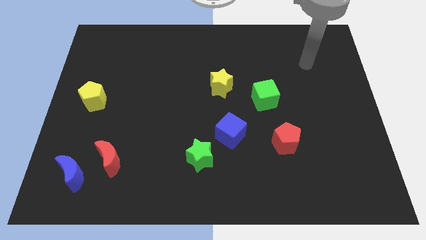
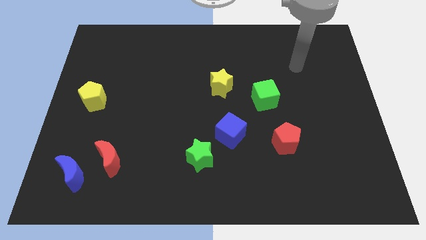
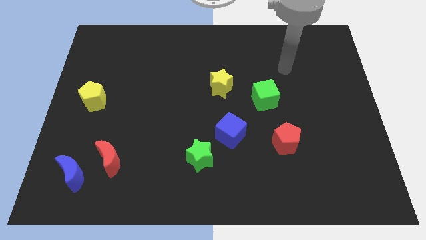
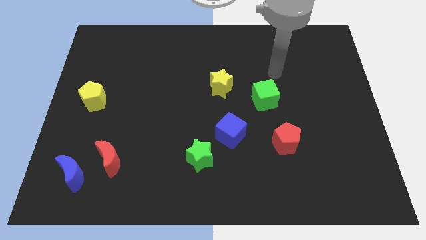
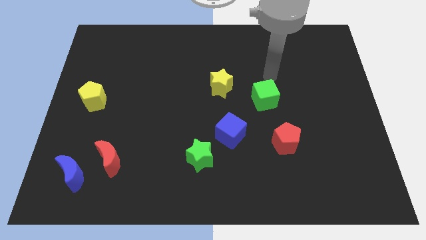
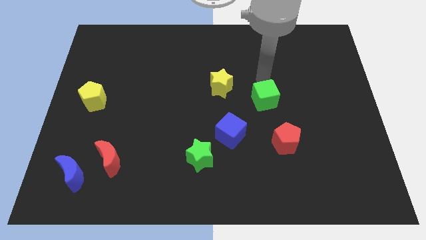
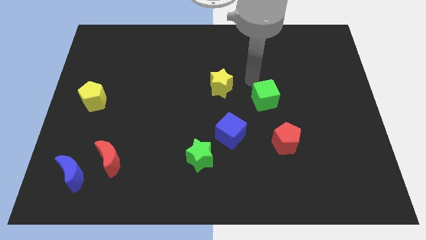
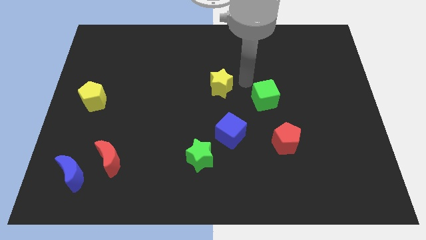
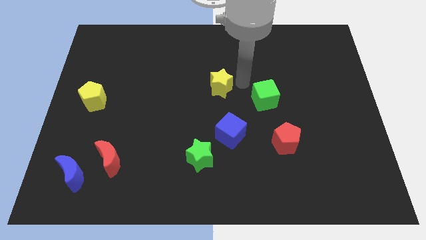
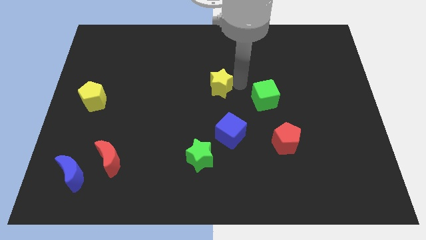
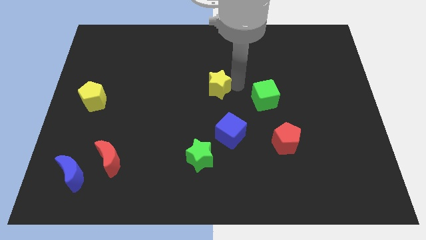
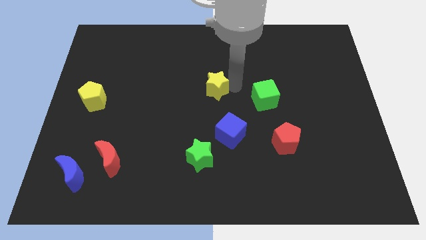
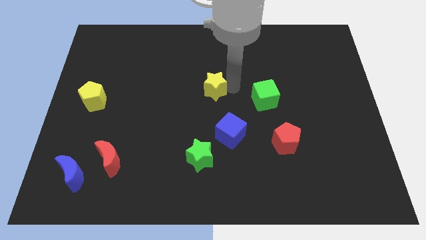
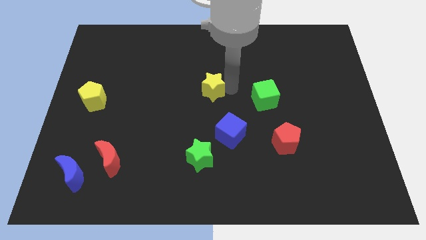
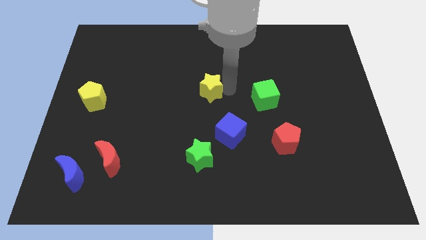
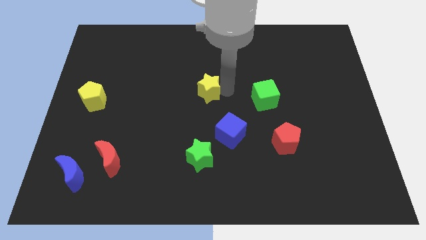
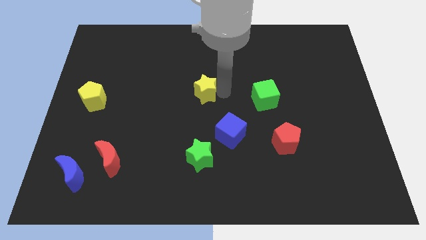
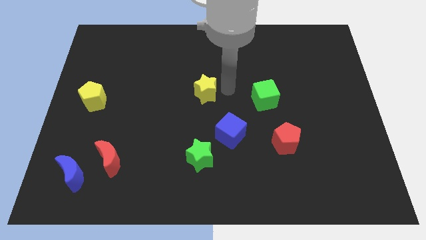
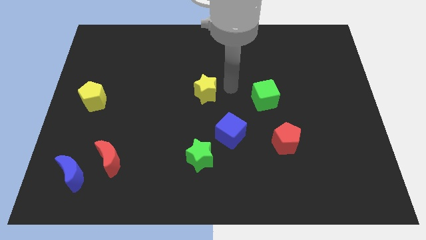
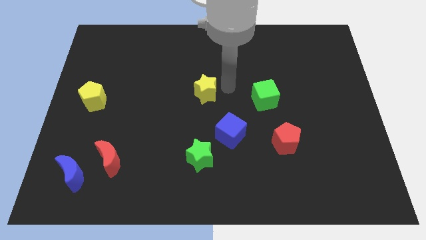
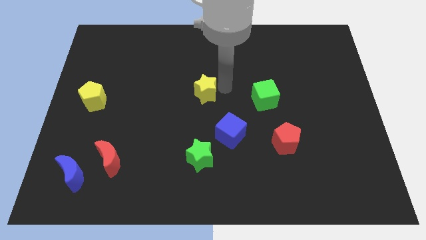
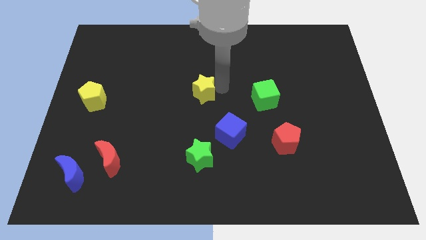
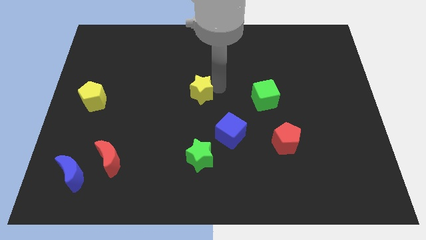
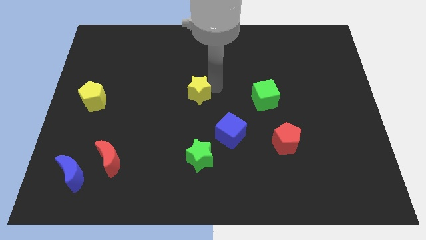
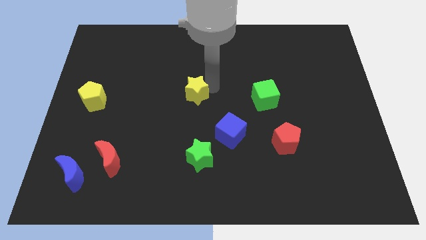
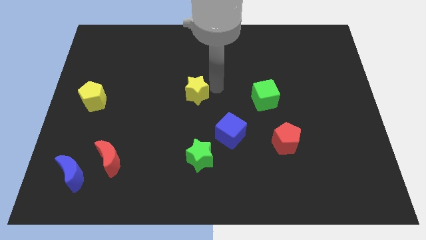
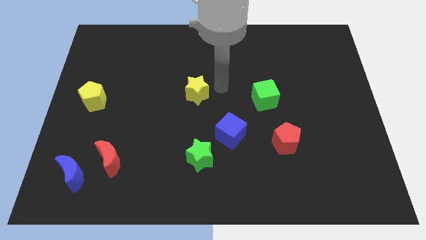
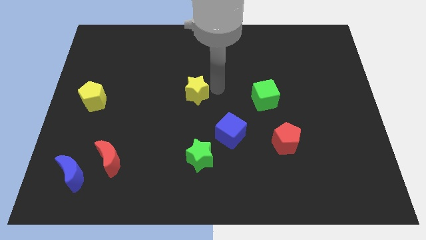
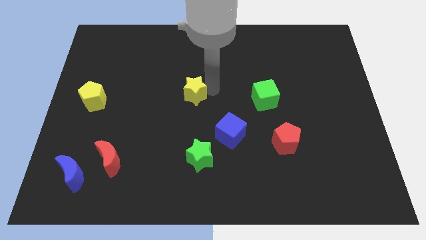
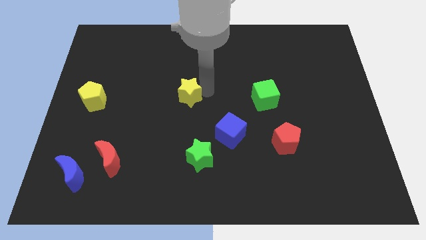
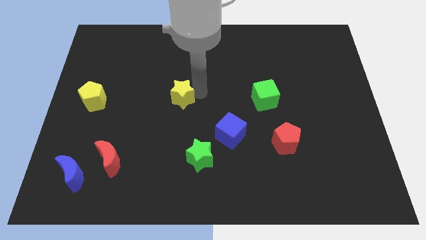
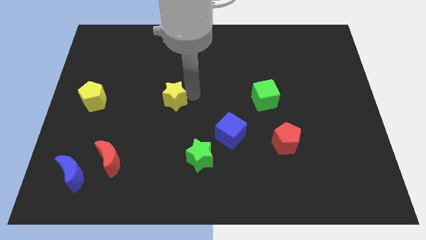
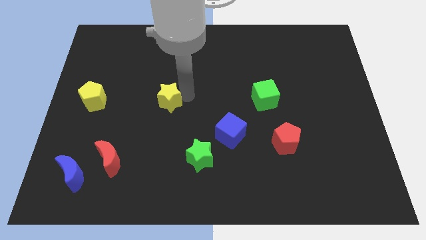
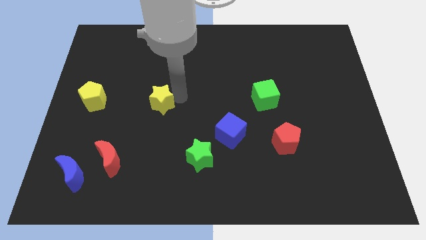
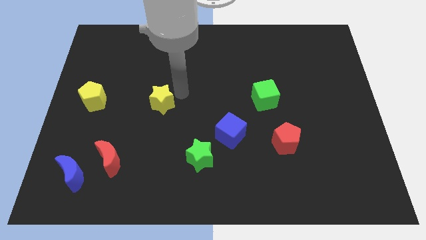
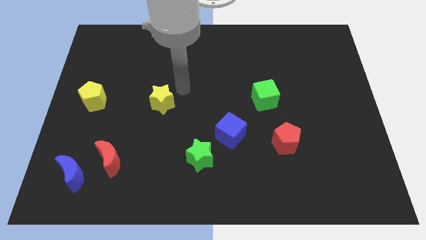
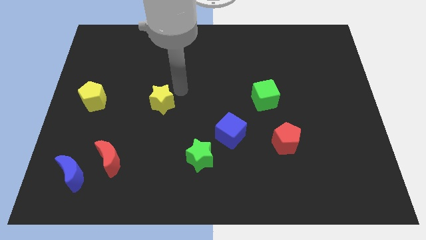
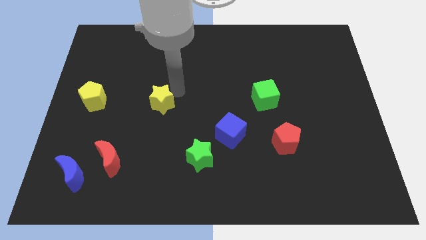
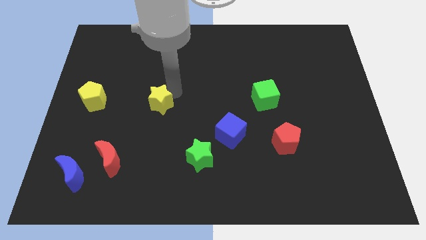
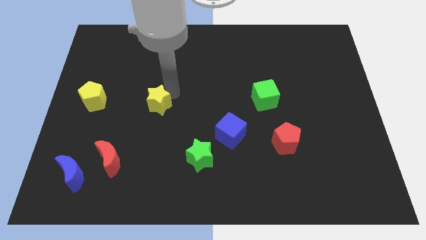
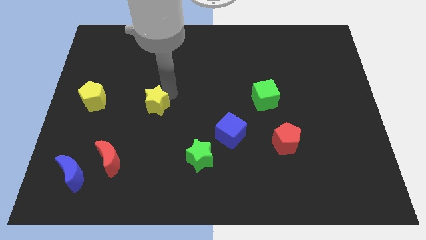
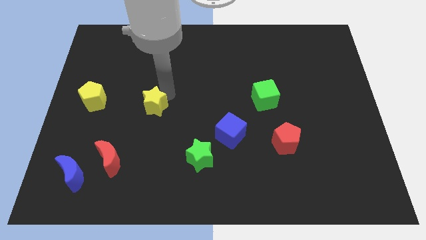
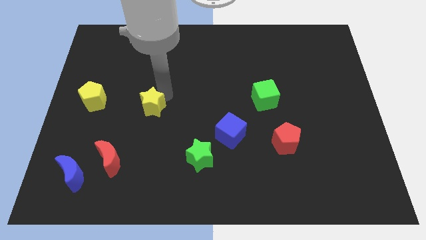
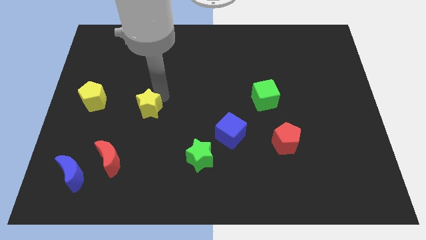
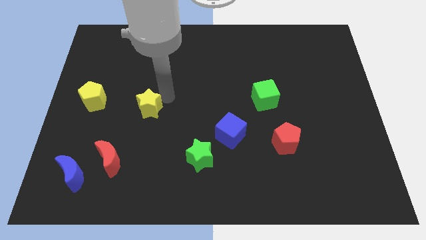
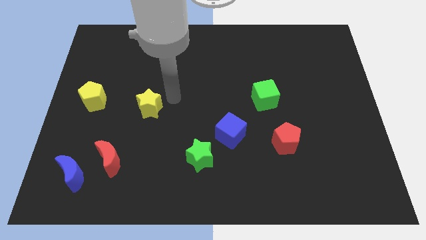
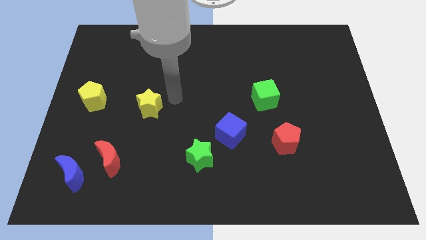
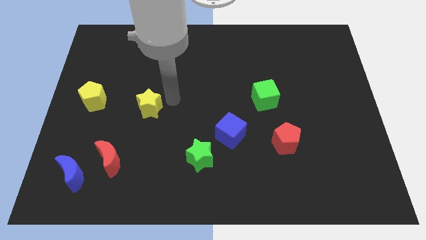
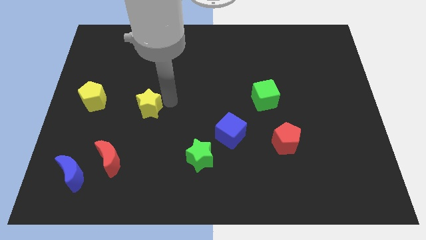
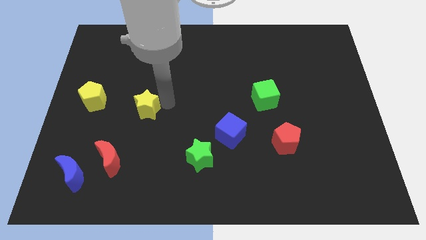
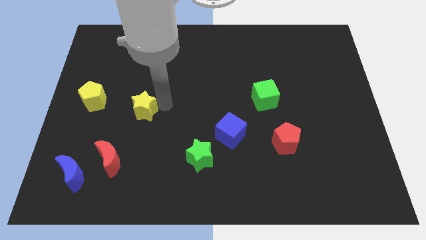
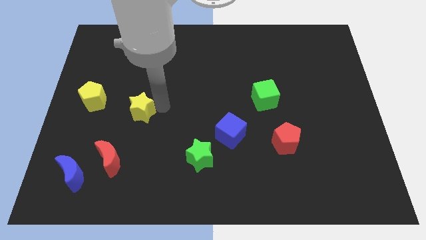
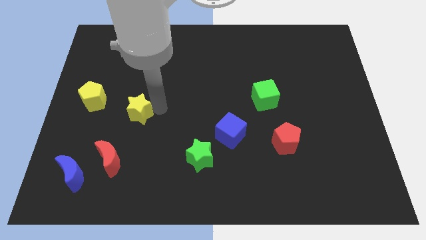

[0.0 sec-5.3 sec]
push the yellow star above the red moon

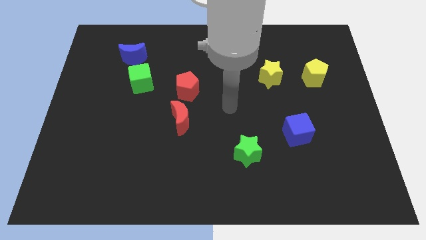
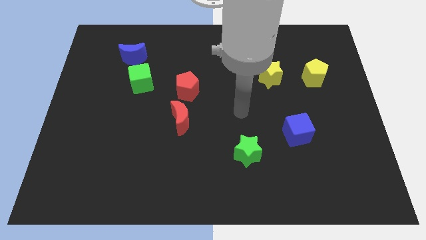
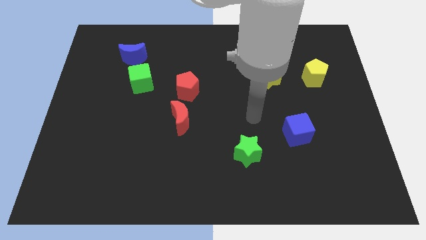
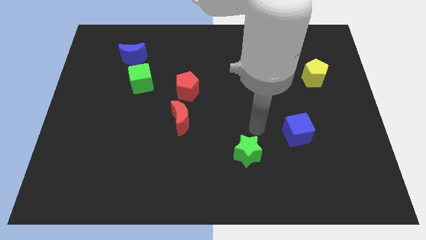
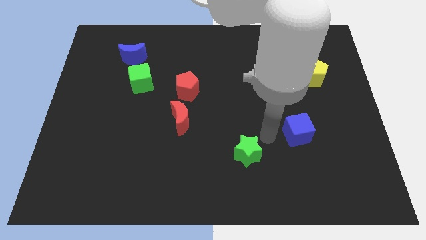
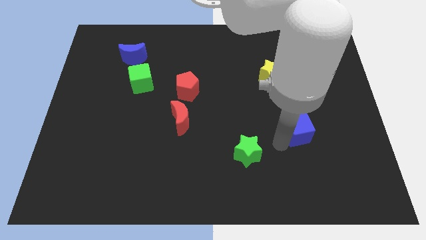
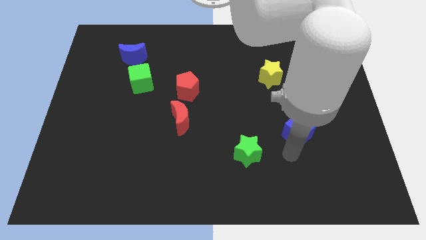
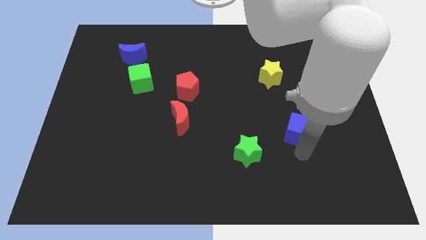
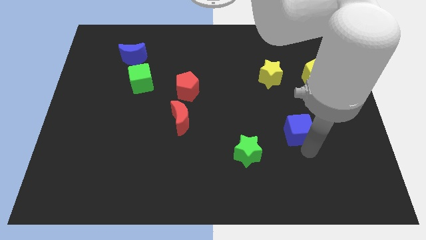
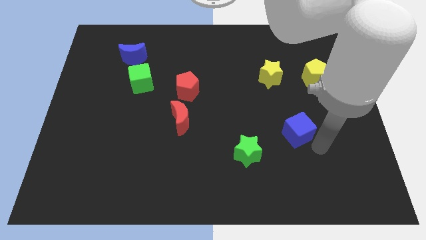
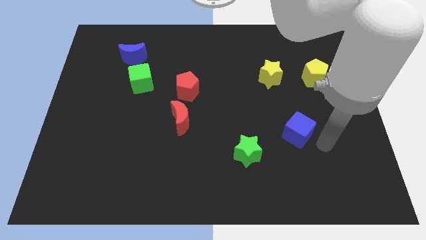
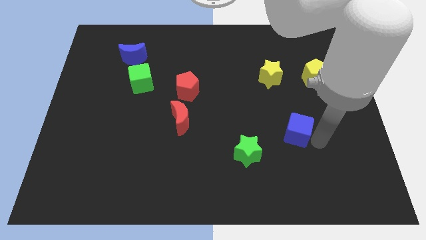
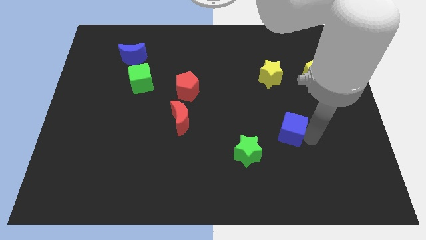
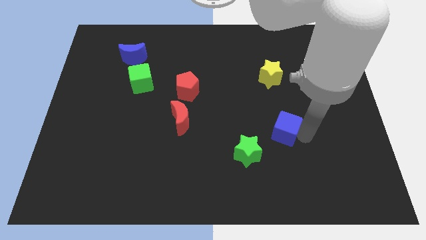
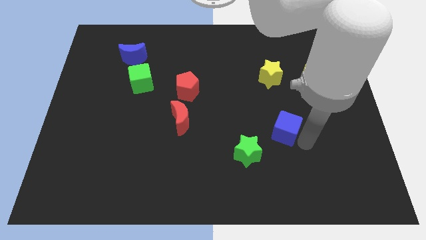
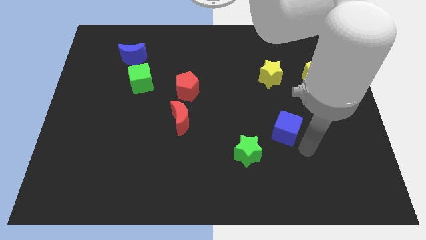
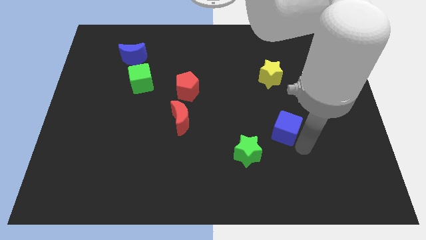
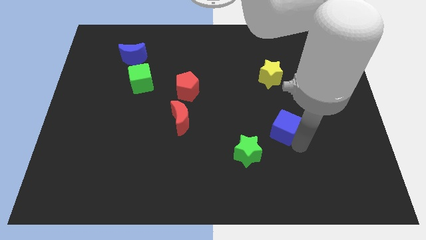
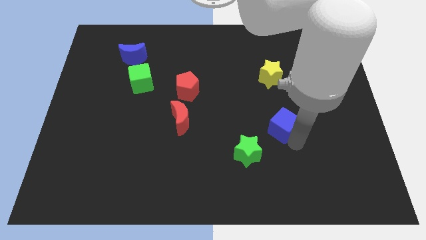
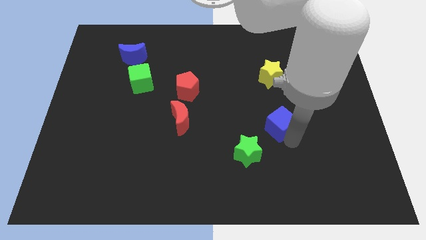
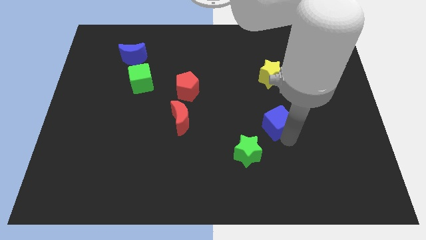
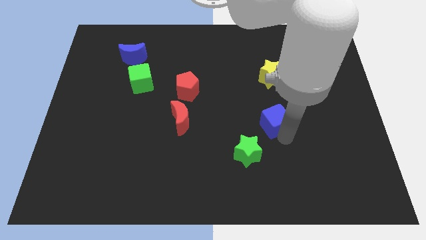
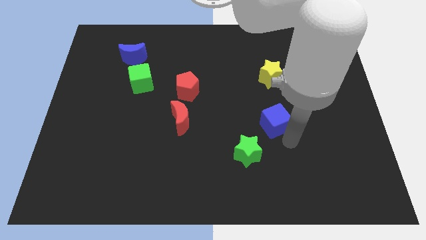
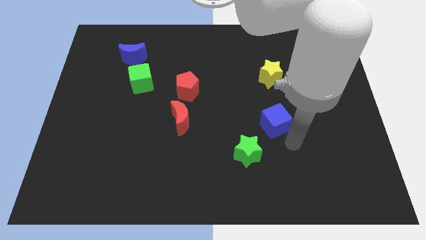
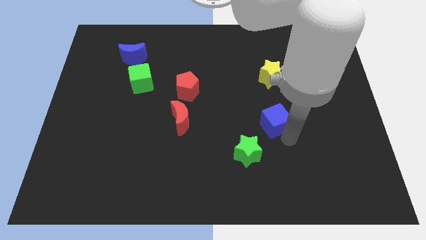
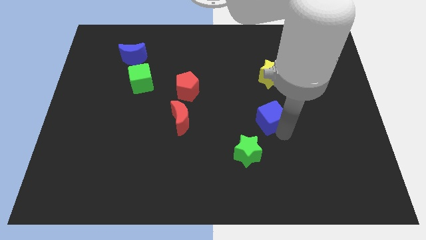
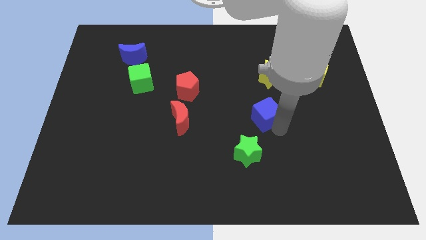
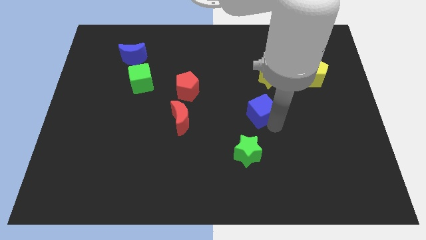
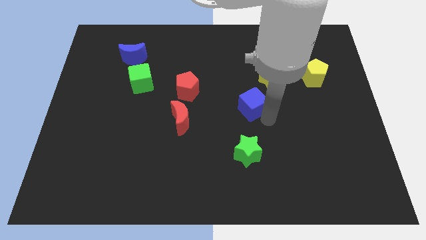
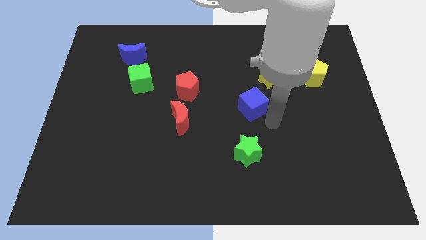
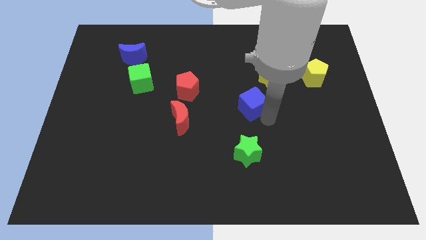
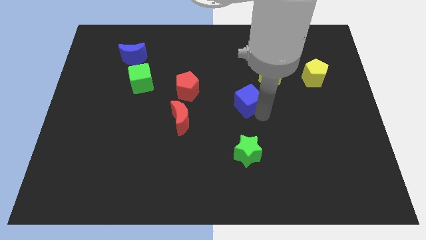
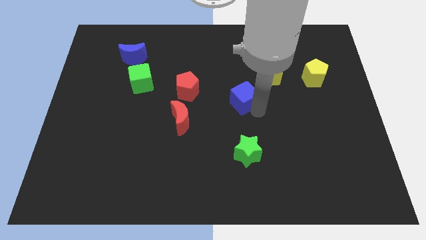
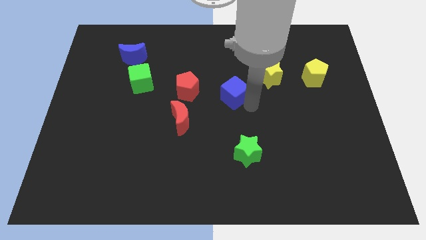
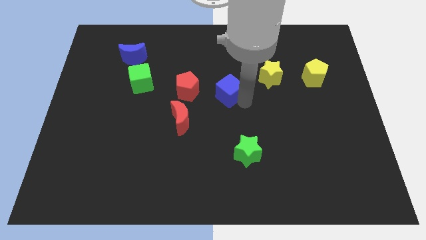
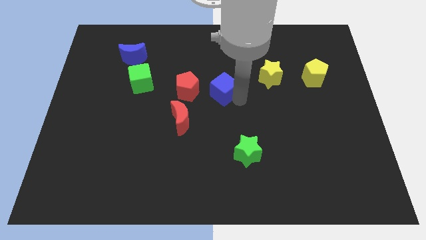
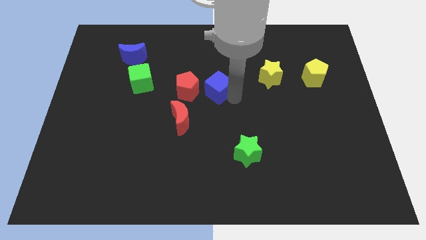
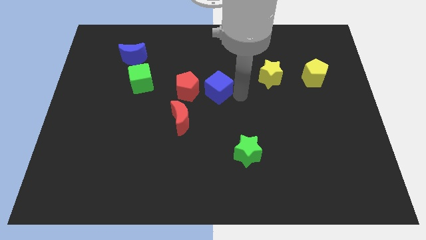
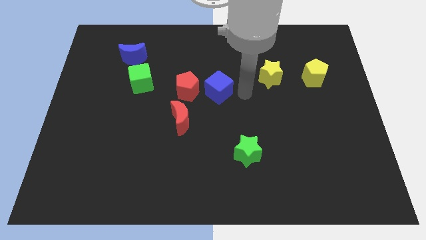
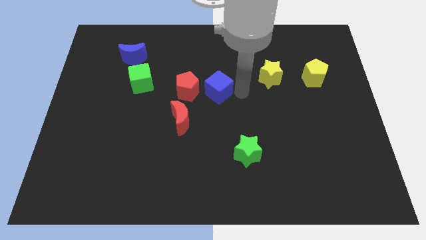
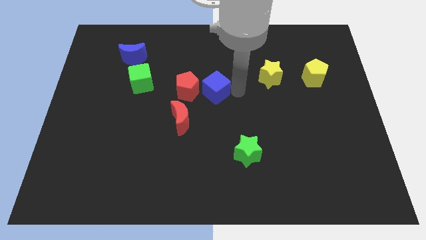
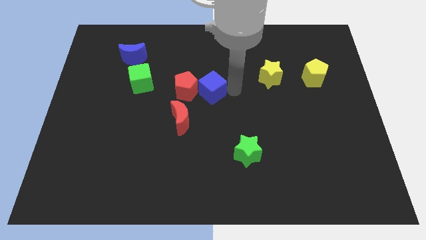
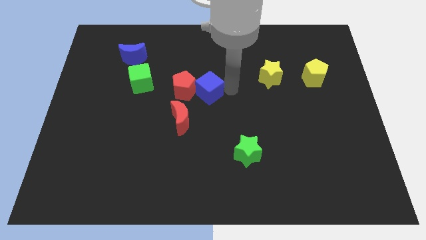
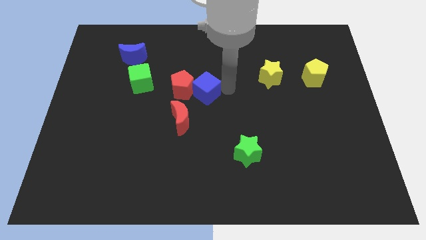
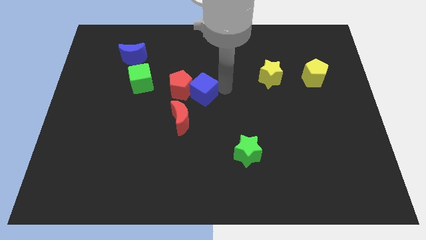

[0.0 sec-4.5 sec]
put the blue cube to the top side of the red moon
